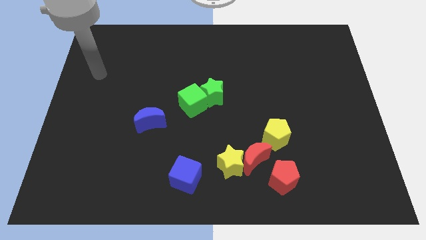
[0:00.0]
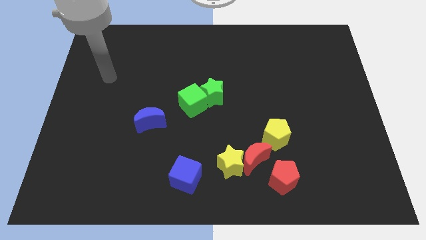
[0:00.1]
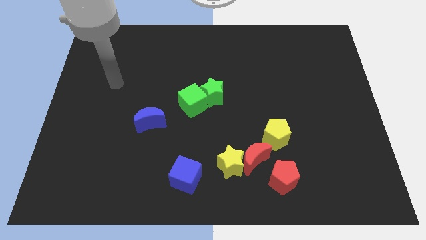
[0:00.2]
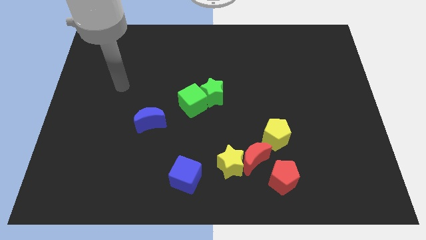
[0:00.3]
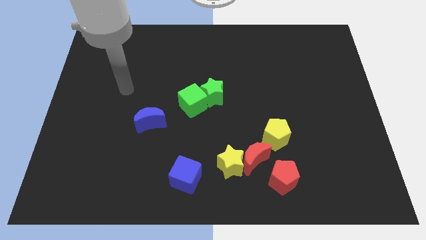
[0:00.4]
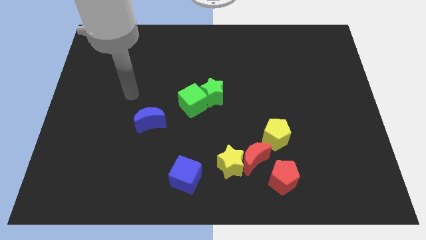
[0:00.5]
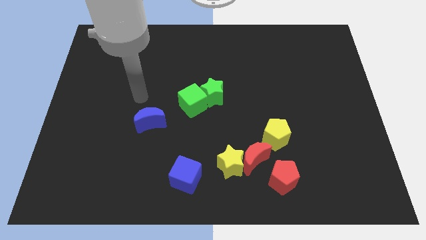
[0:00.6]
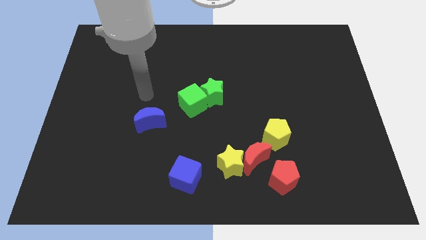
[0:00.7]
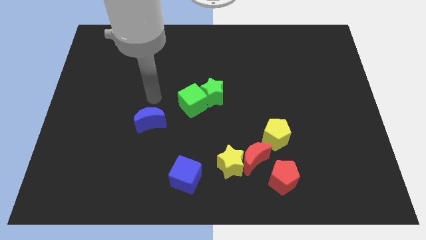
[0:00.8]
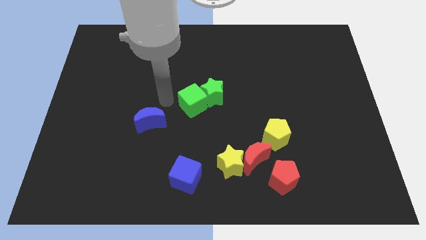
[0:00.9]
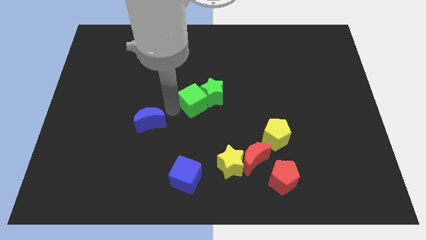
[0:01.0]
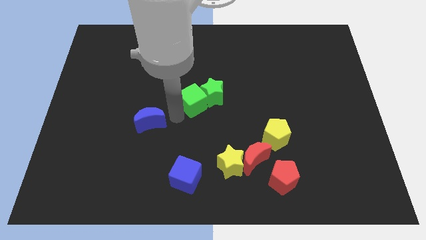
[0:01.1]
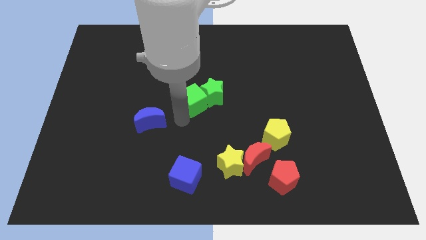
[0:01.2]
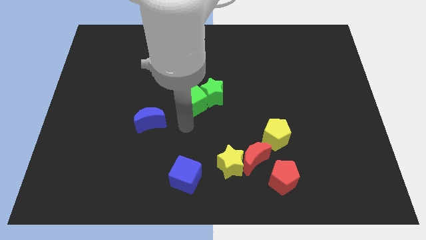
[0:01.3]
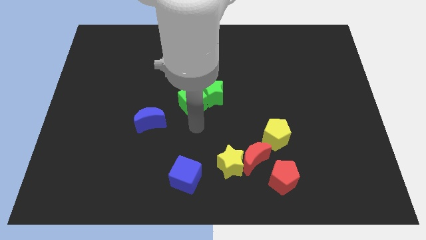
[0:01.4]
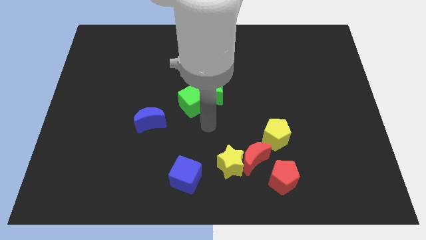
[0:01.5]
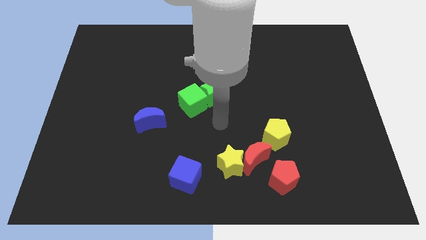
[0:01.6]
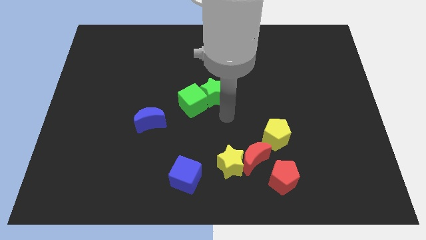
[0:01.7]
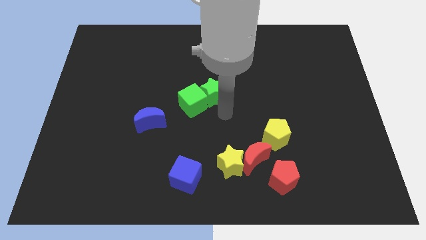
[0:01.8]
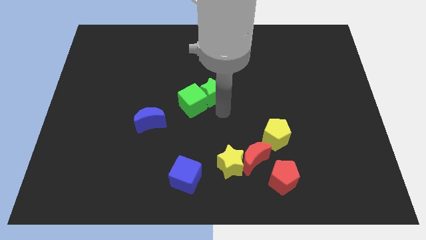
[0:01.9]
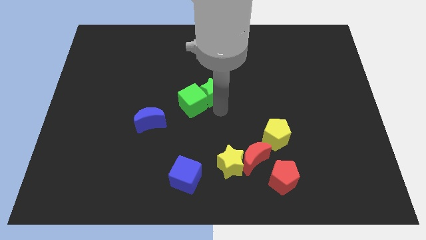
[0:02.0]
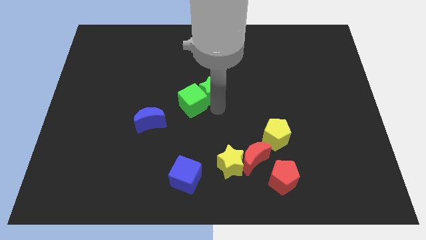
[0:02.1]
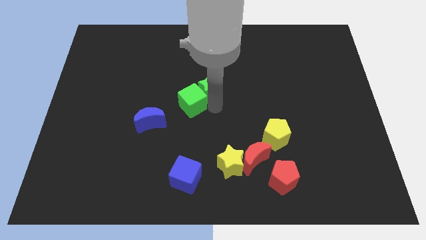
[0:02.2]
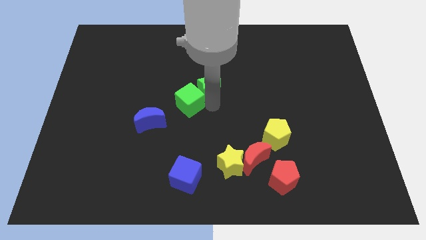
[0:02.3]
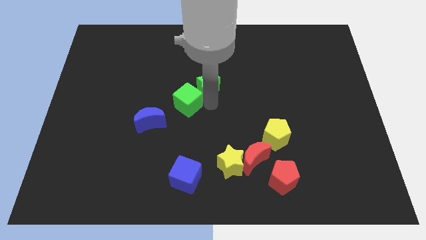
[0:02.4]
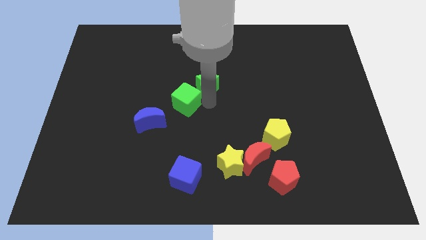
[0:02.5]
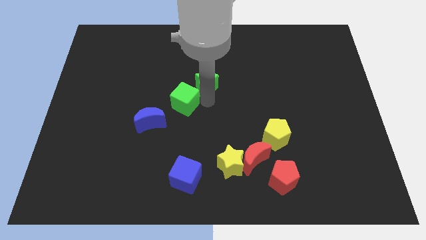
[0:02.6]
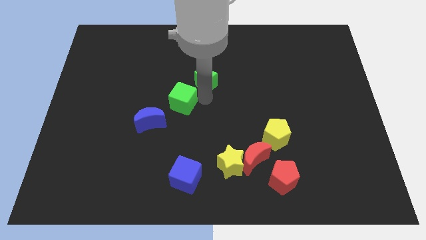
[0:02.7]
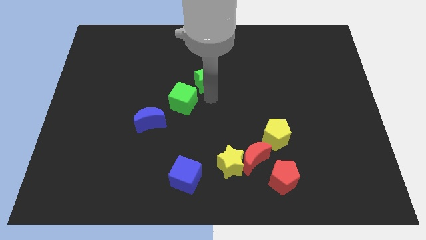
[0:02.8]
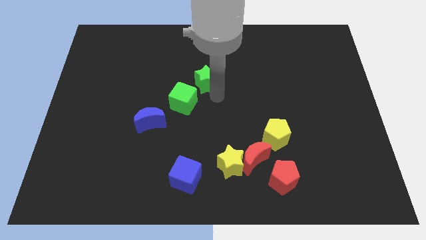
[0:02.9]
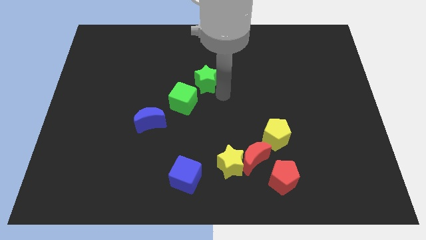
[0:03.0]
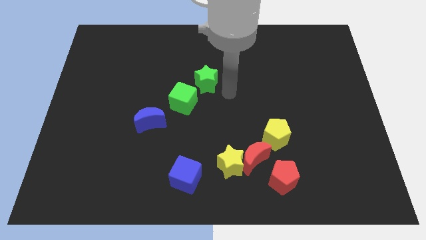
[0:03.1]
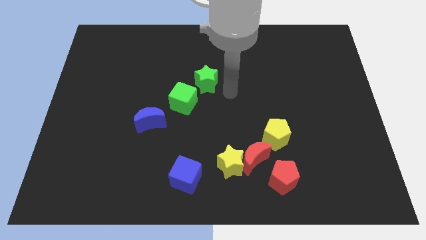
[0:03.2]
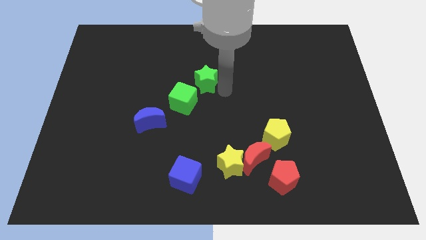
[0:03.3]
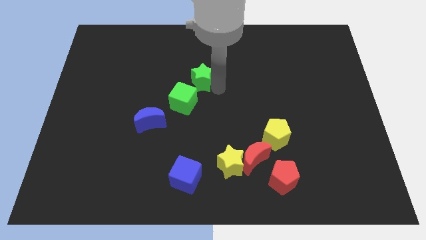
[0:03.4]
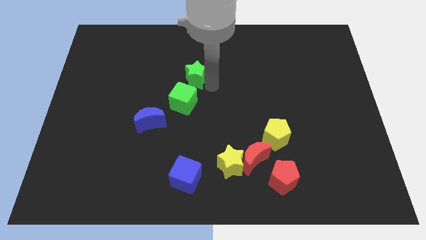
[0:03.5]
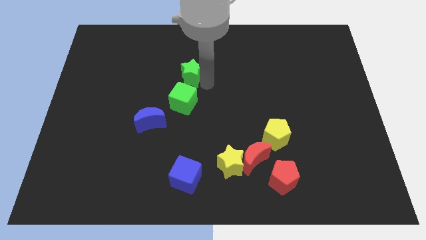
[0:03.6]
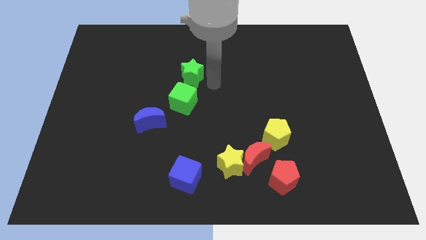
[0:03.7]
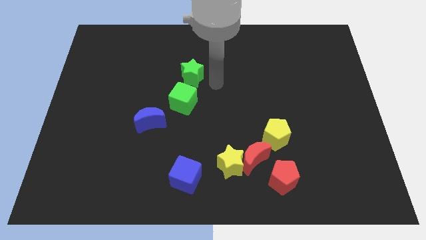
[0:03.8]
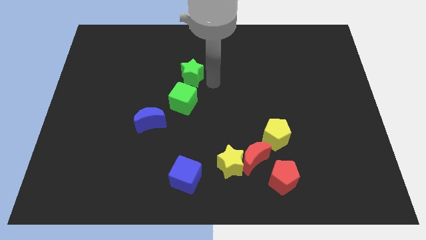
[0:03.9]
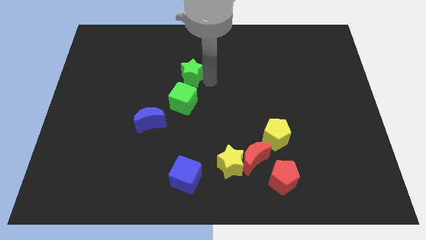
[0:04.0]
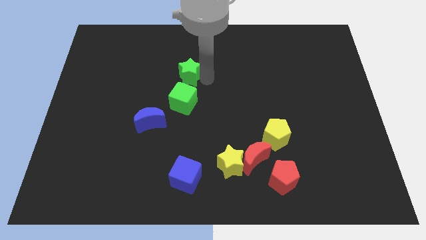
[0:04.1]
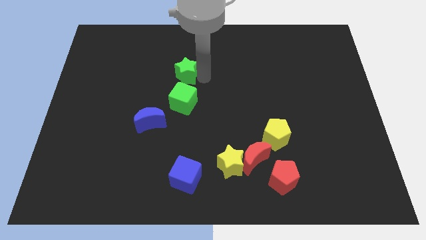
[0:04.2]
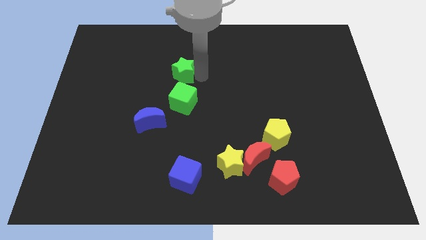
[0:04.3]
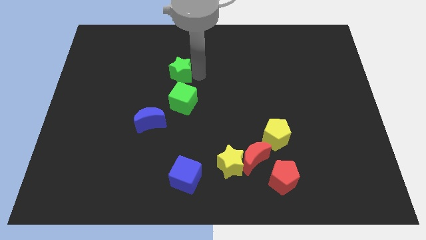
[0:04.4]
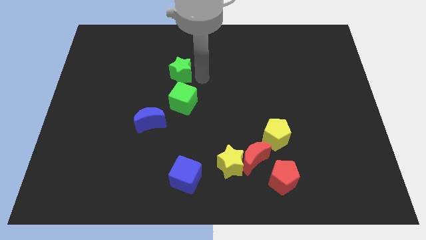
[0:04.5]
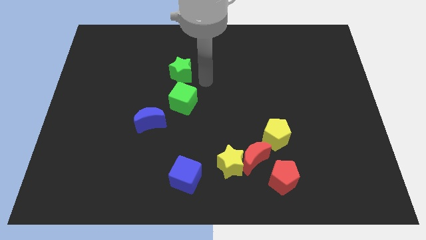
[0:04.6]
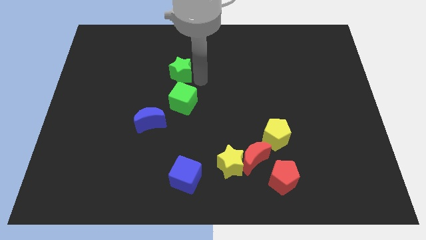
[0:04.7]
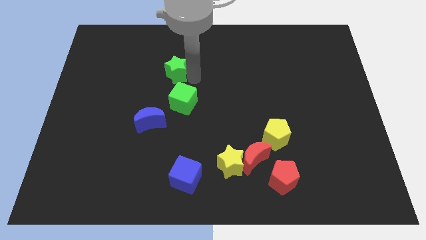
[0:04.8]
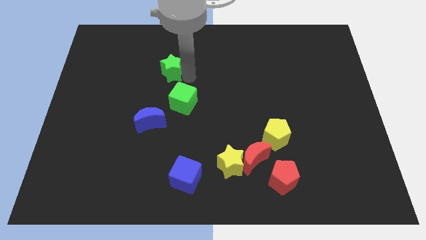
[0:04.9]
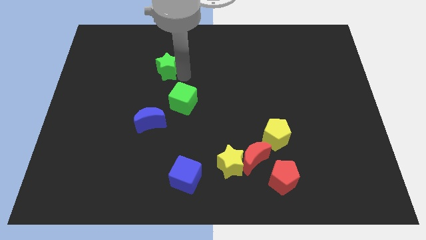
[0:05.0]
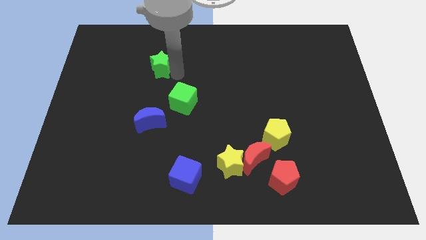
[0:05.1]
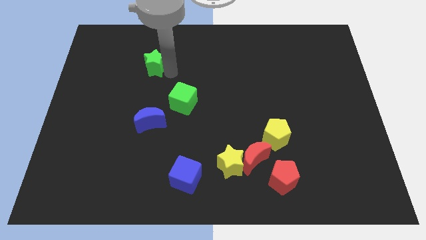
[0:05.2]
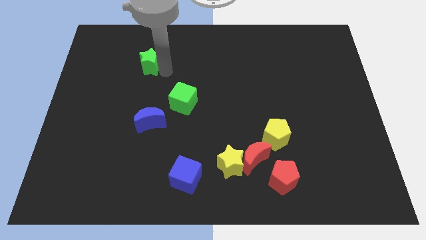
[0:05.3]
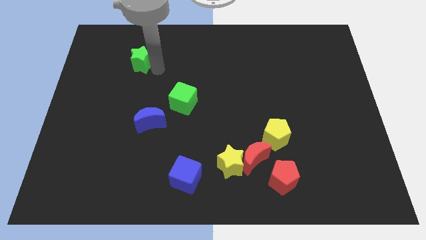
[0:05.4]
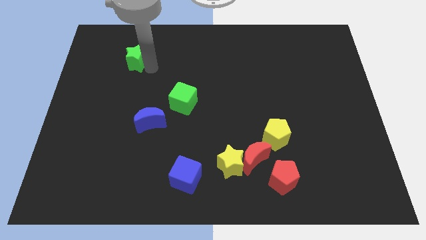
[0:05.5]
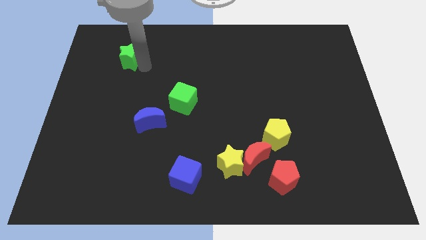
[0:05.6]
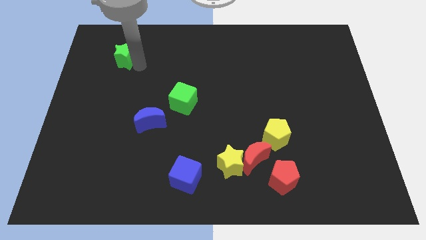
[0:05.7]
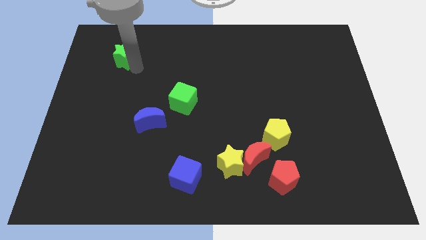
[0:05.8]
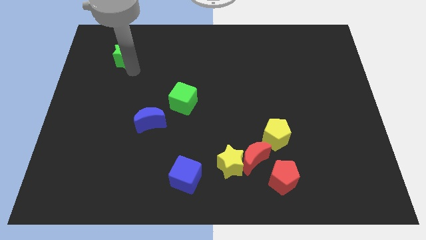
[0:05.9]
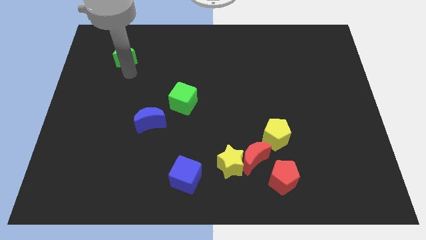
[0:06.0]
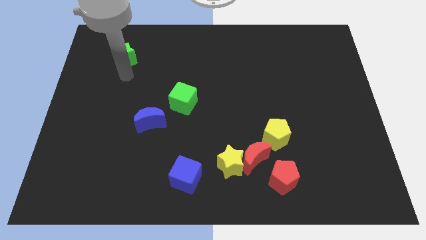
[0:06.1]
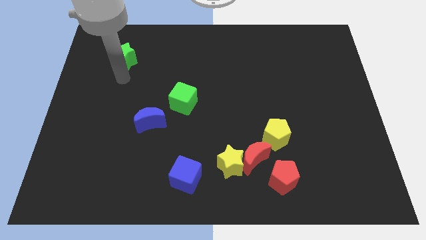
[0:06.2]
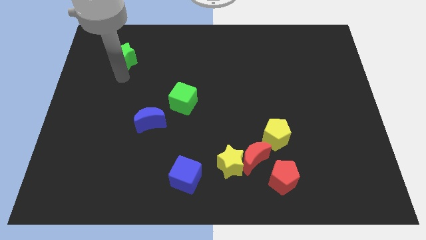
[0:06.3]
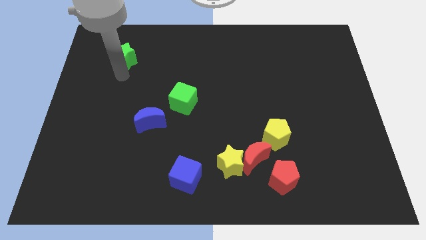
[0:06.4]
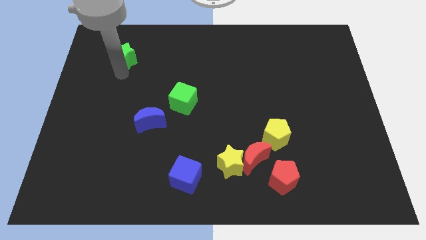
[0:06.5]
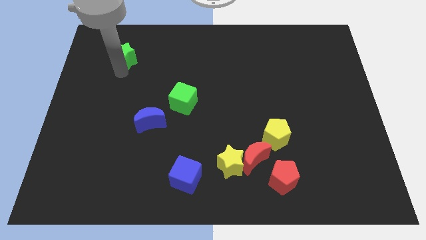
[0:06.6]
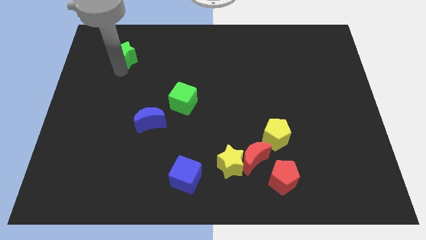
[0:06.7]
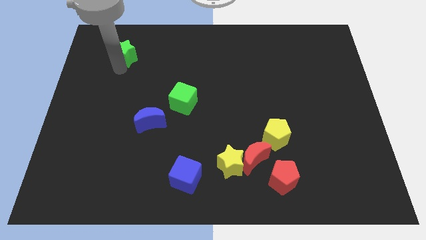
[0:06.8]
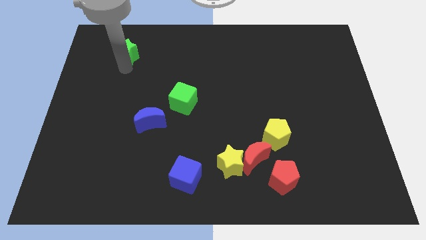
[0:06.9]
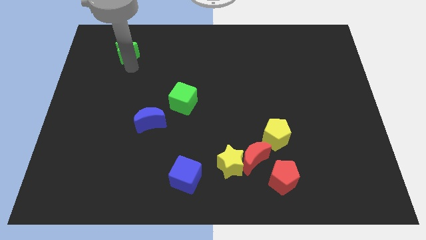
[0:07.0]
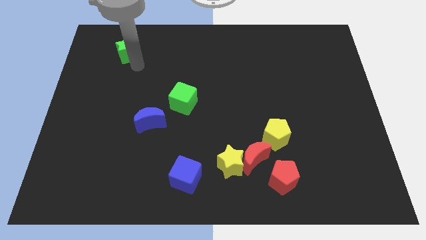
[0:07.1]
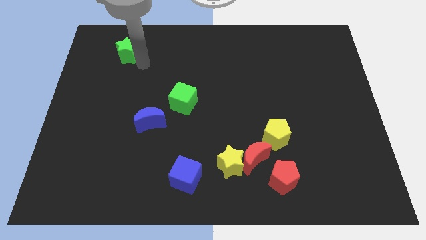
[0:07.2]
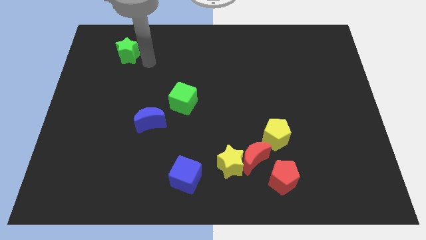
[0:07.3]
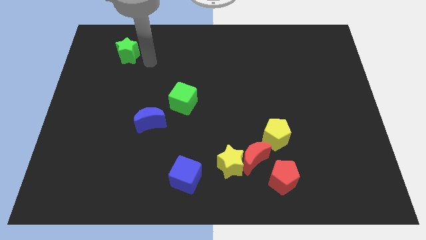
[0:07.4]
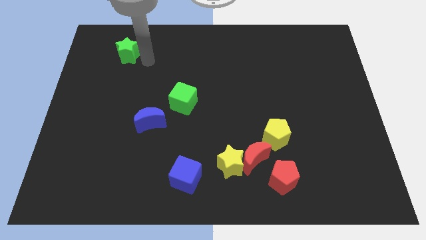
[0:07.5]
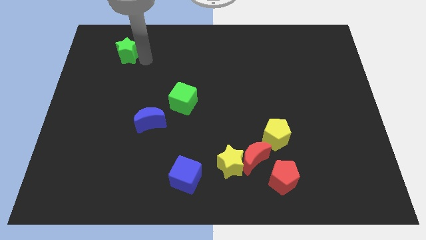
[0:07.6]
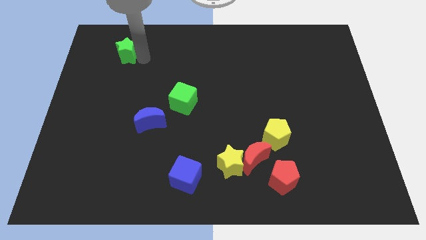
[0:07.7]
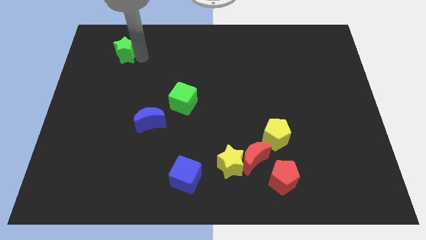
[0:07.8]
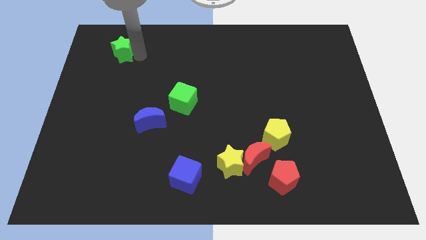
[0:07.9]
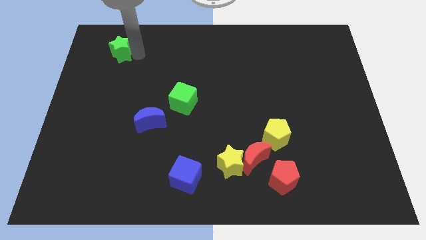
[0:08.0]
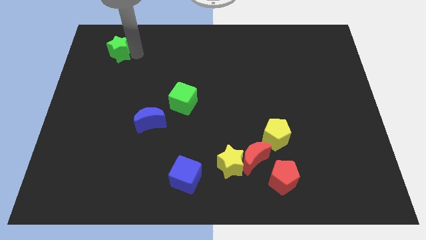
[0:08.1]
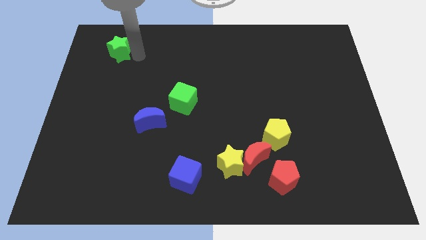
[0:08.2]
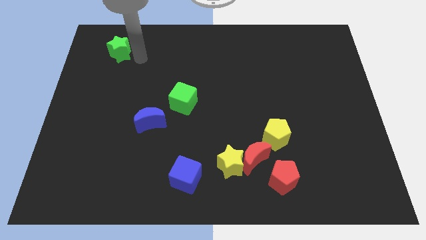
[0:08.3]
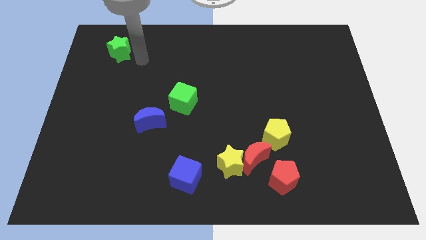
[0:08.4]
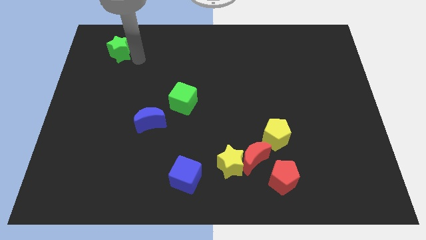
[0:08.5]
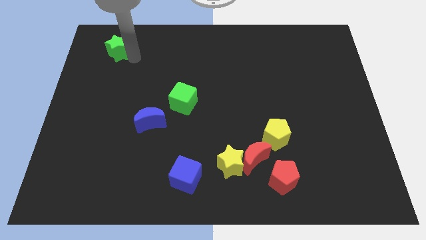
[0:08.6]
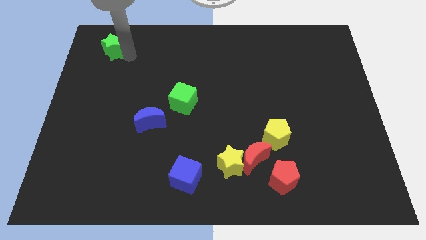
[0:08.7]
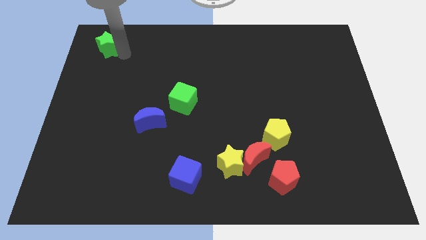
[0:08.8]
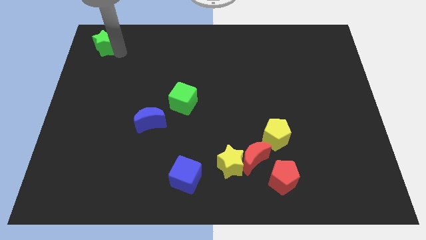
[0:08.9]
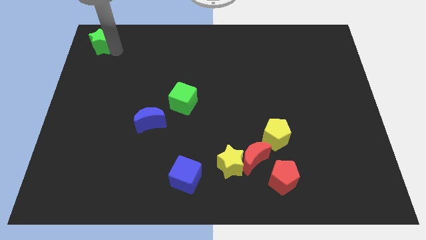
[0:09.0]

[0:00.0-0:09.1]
slide the green star to the top left corner
